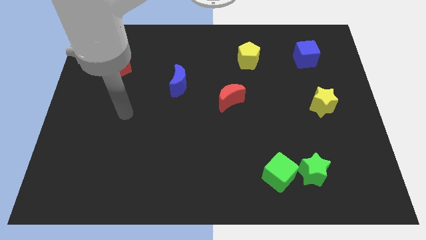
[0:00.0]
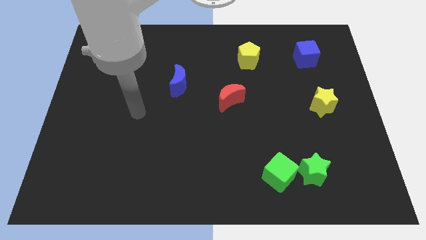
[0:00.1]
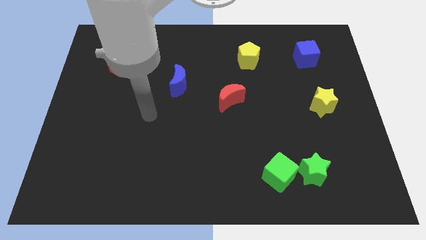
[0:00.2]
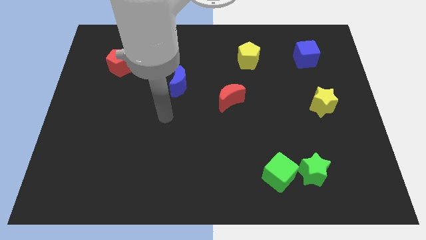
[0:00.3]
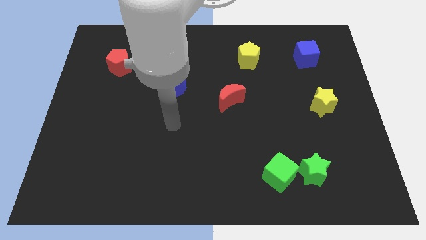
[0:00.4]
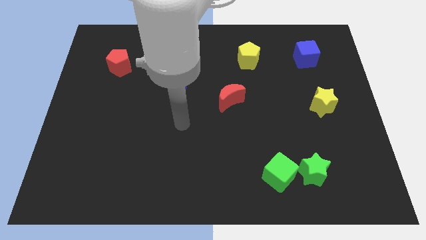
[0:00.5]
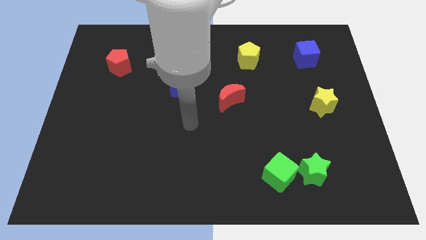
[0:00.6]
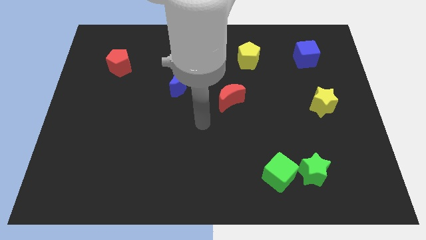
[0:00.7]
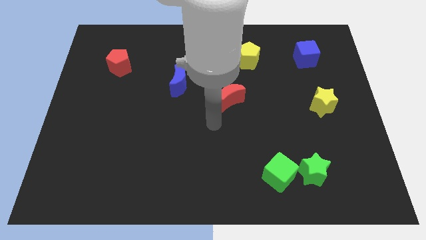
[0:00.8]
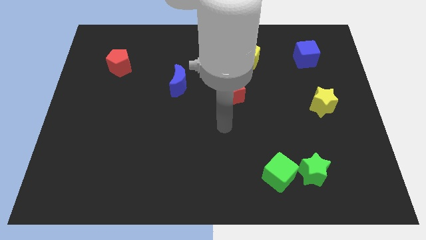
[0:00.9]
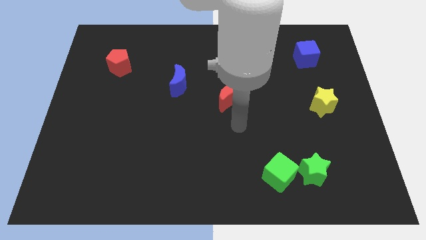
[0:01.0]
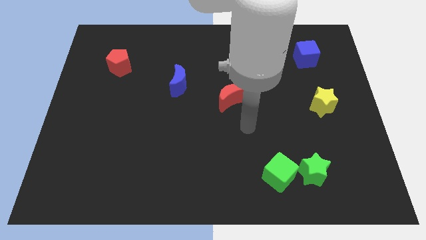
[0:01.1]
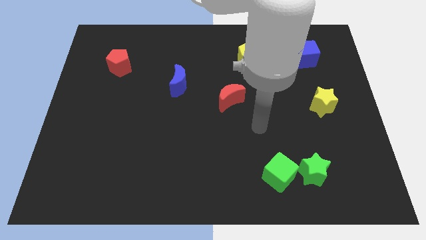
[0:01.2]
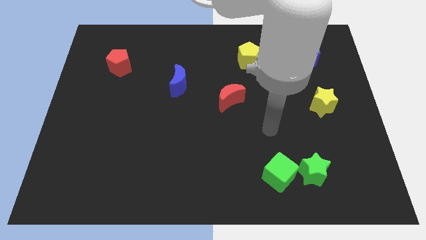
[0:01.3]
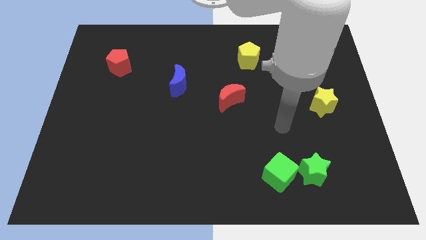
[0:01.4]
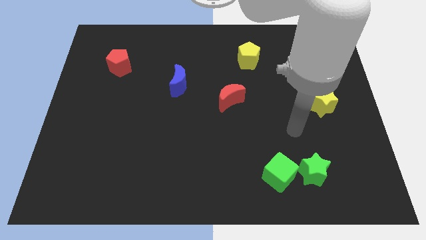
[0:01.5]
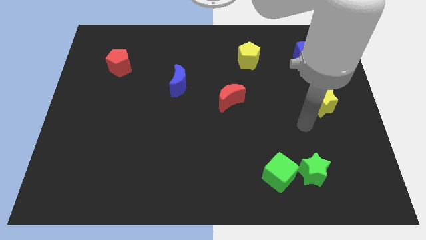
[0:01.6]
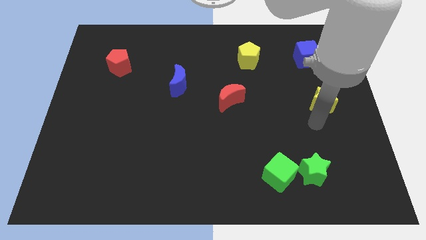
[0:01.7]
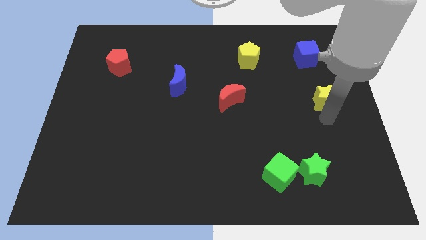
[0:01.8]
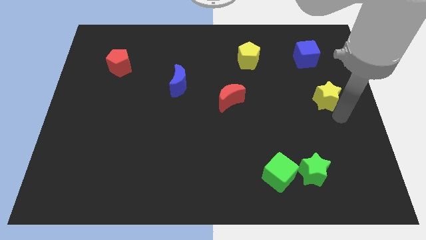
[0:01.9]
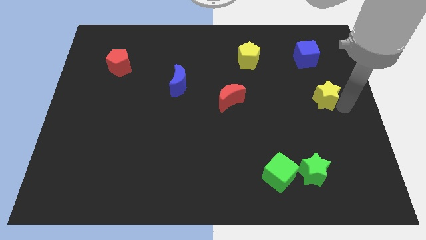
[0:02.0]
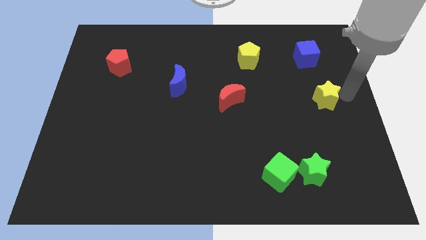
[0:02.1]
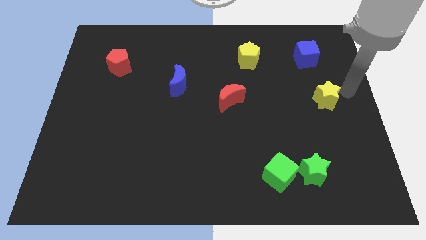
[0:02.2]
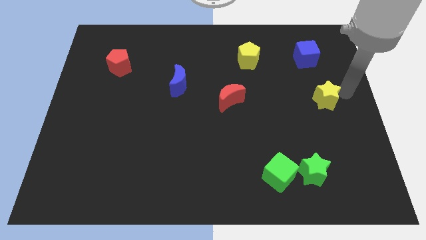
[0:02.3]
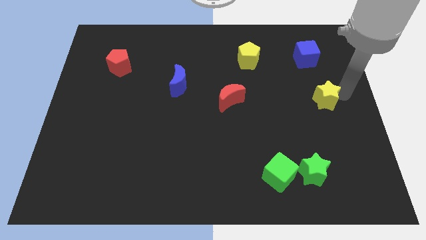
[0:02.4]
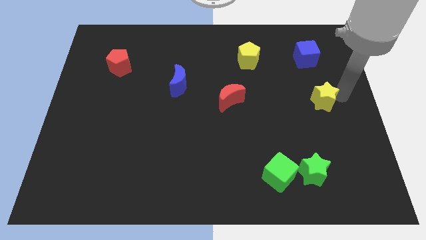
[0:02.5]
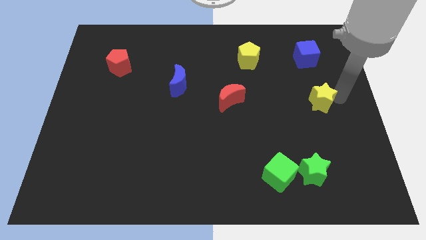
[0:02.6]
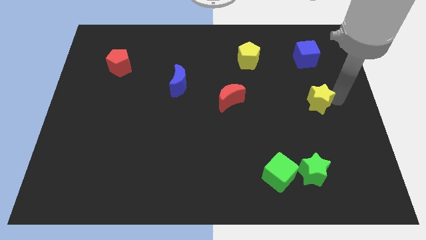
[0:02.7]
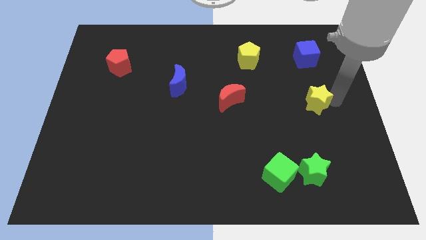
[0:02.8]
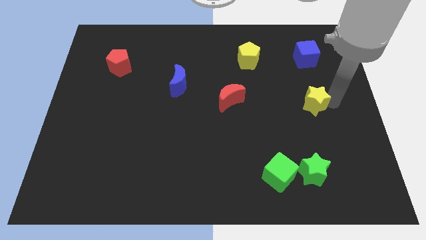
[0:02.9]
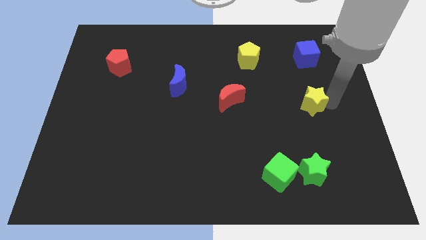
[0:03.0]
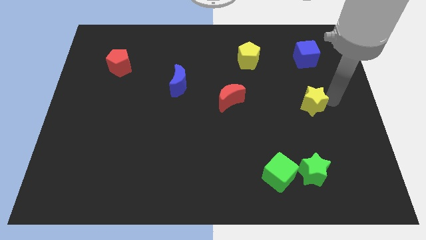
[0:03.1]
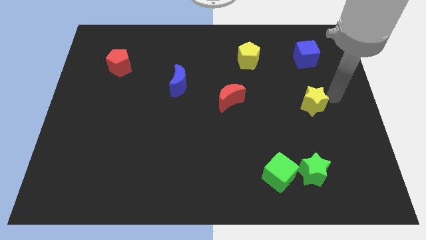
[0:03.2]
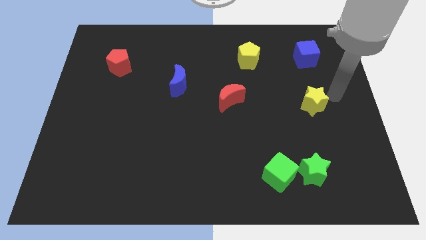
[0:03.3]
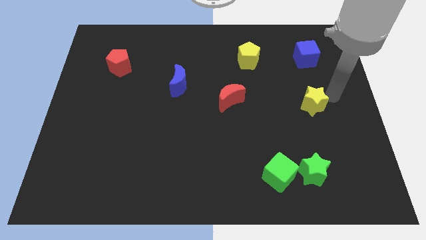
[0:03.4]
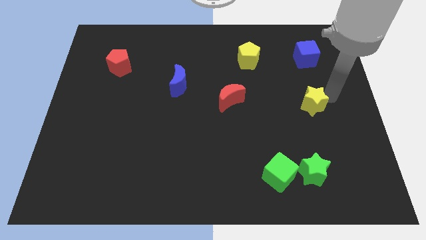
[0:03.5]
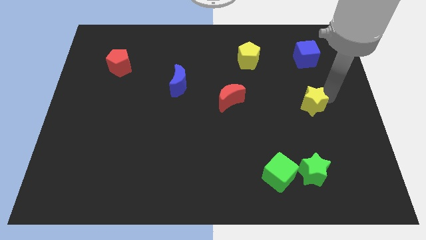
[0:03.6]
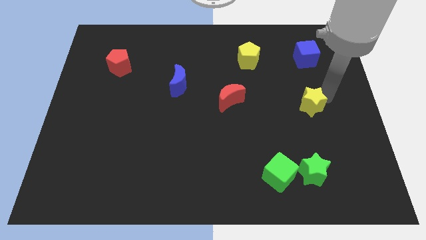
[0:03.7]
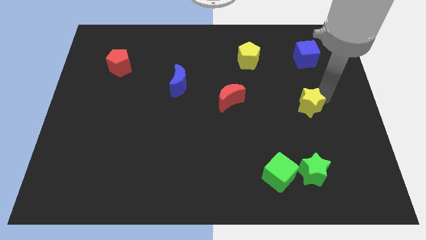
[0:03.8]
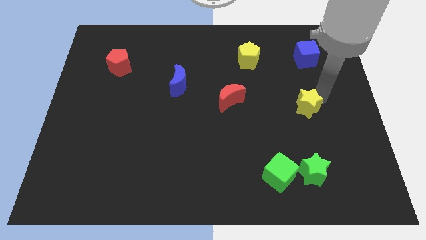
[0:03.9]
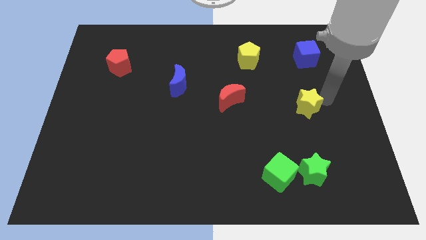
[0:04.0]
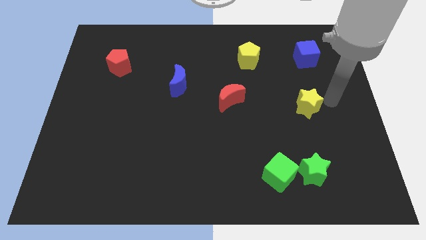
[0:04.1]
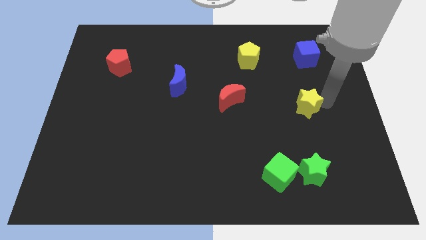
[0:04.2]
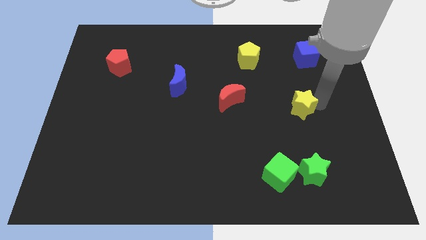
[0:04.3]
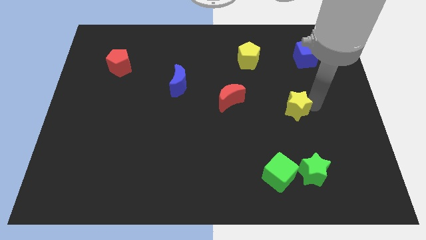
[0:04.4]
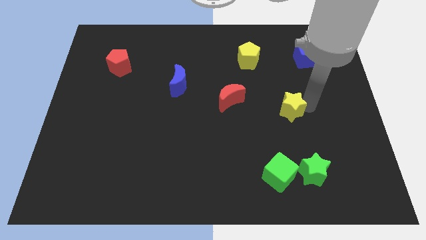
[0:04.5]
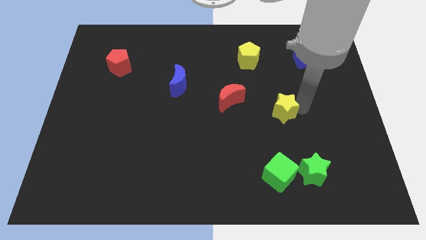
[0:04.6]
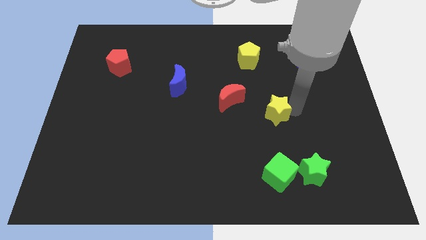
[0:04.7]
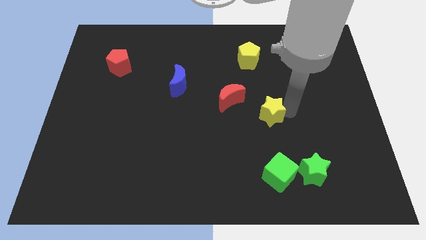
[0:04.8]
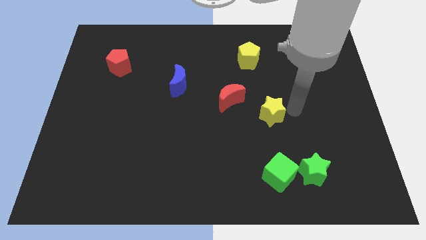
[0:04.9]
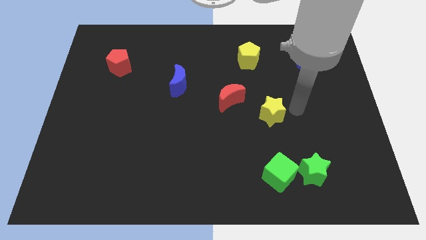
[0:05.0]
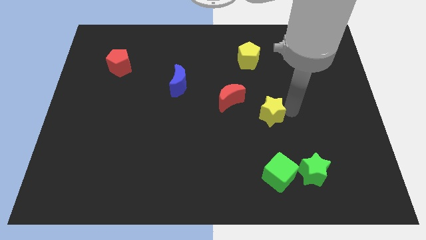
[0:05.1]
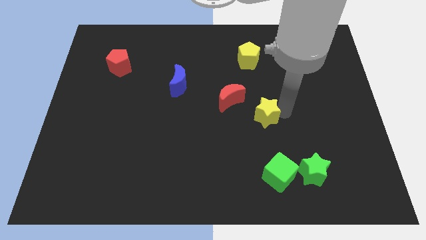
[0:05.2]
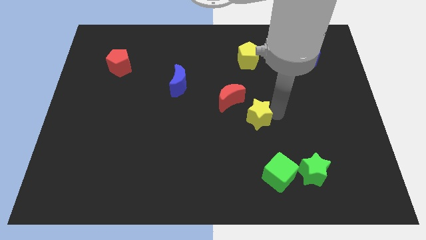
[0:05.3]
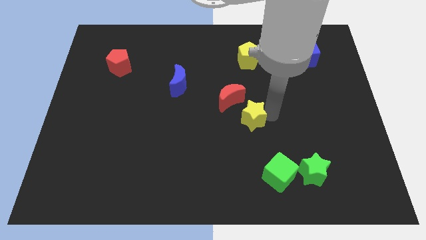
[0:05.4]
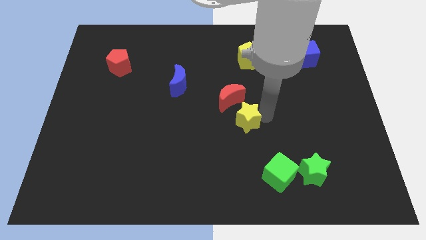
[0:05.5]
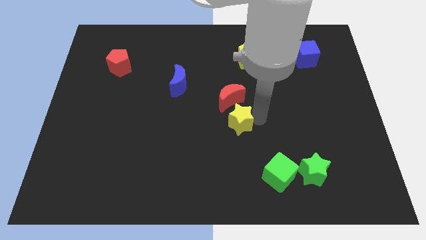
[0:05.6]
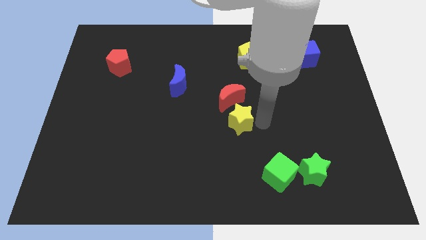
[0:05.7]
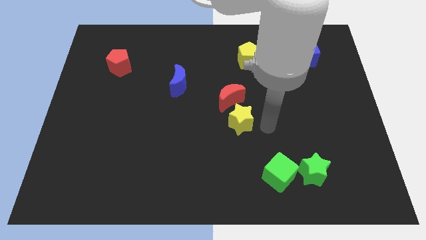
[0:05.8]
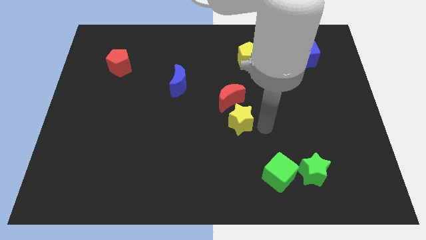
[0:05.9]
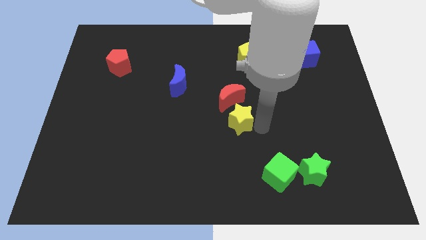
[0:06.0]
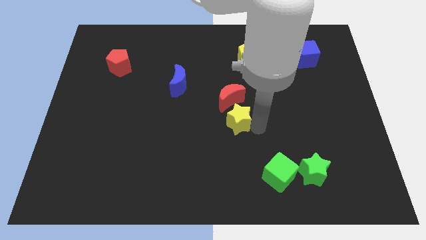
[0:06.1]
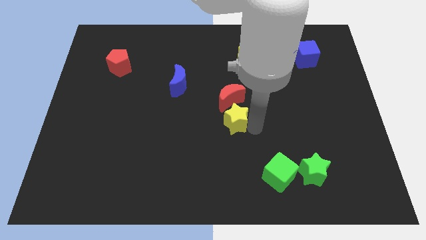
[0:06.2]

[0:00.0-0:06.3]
slide the yellow star left

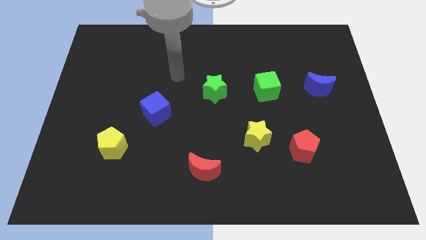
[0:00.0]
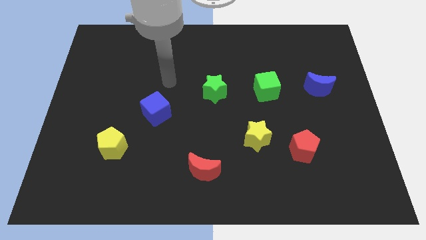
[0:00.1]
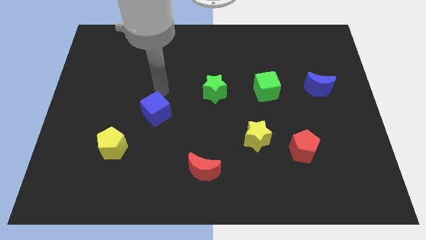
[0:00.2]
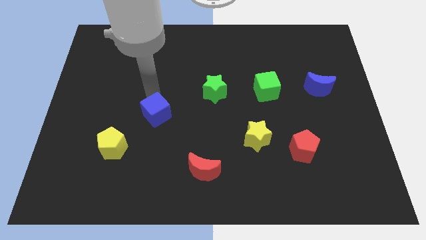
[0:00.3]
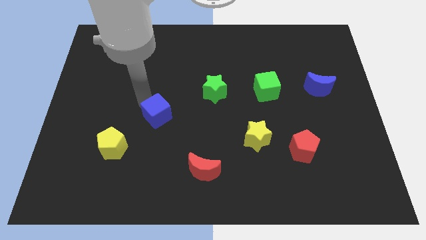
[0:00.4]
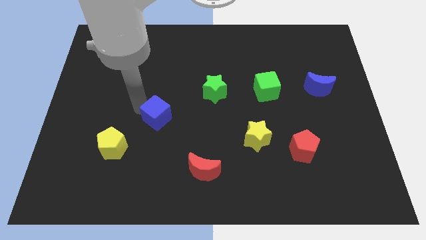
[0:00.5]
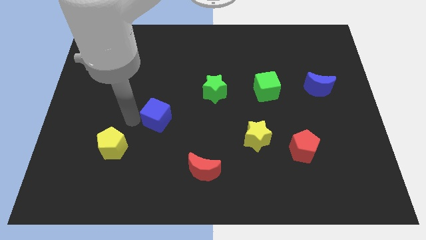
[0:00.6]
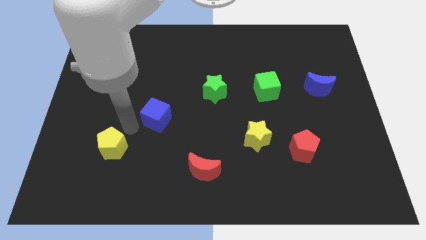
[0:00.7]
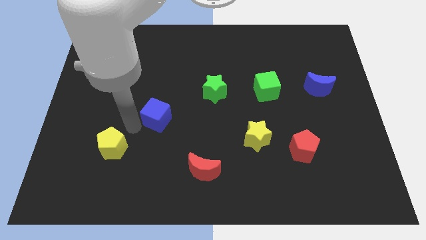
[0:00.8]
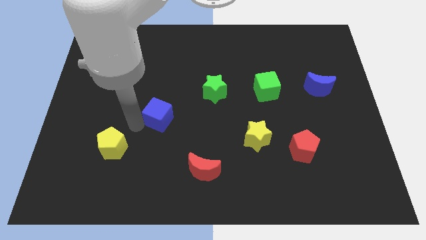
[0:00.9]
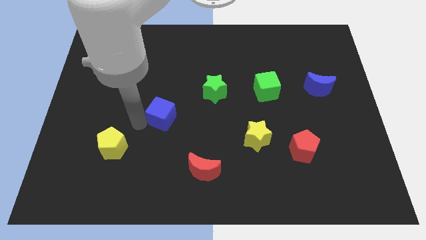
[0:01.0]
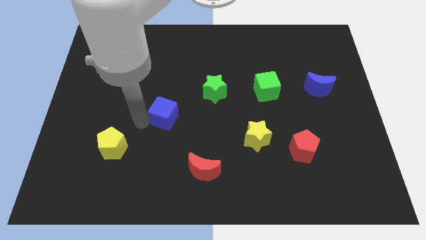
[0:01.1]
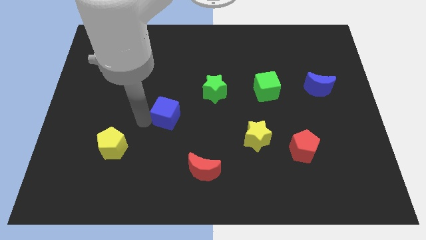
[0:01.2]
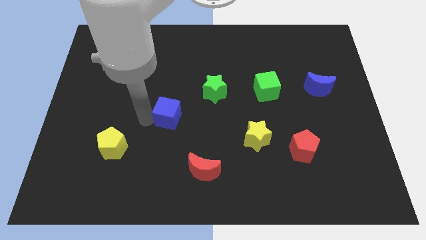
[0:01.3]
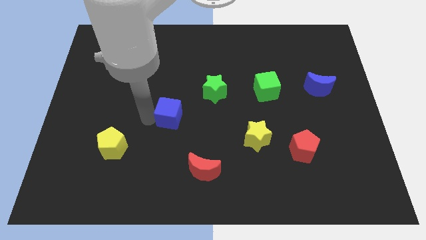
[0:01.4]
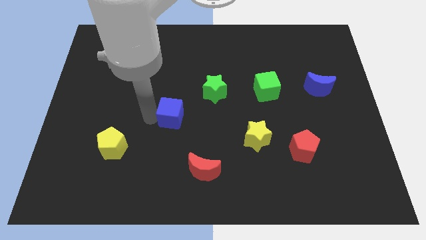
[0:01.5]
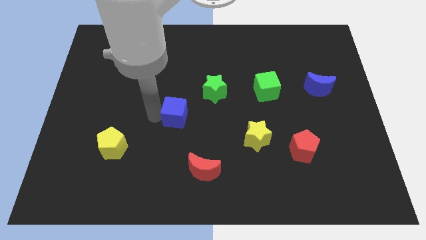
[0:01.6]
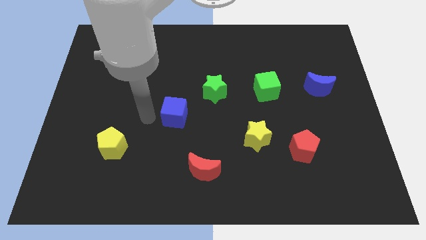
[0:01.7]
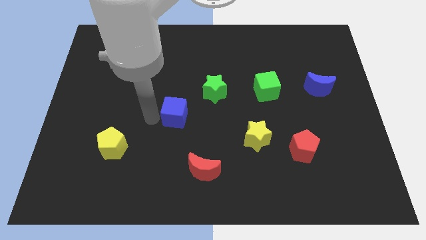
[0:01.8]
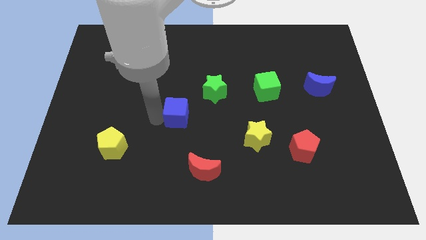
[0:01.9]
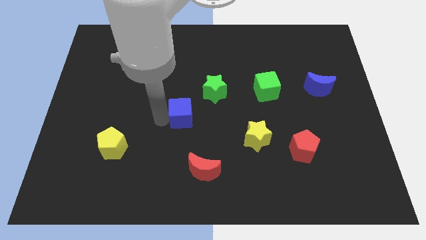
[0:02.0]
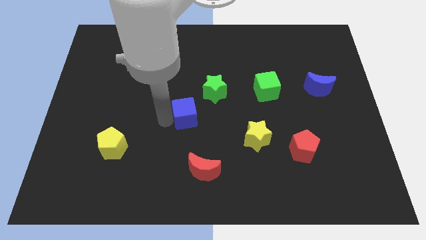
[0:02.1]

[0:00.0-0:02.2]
move the blue cube to the right a little bit
